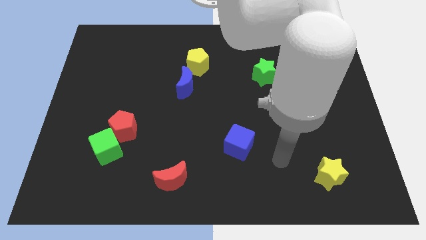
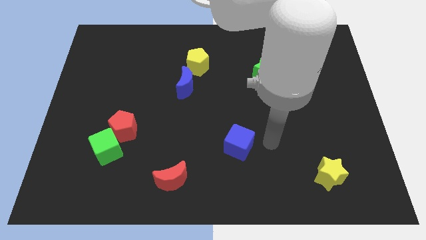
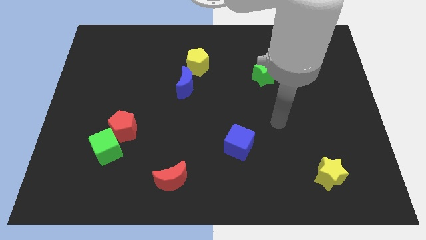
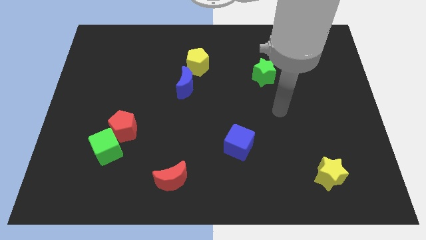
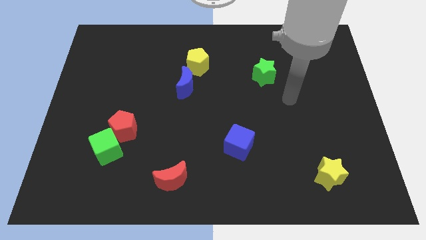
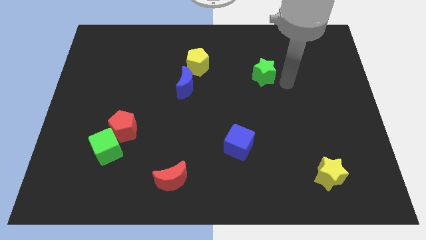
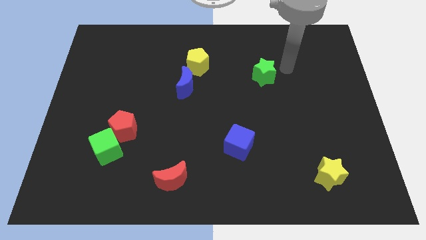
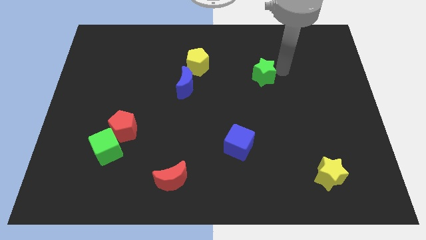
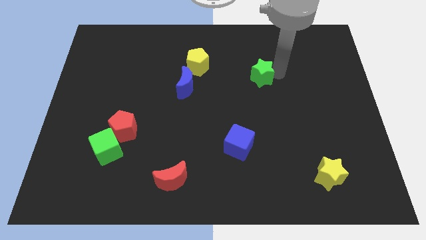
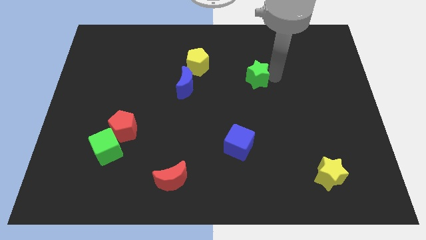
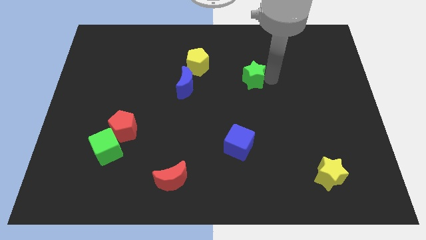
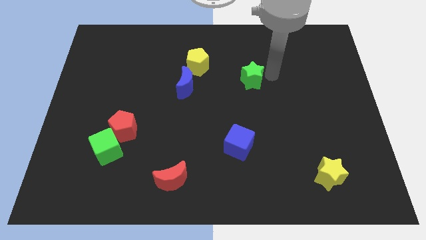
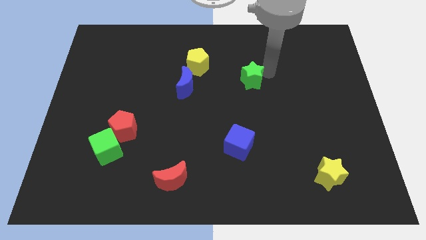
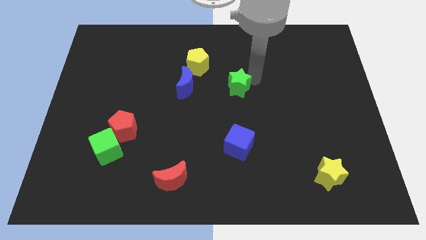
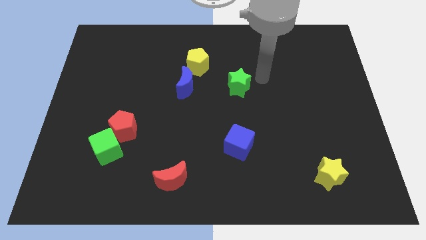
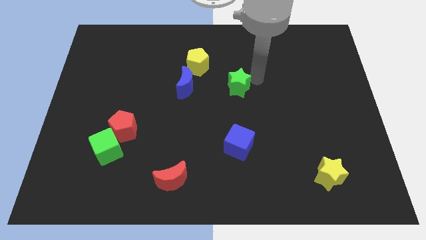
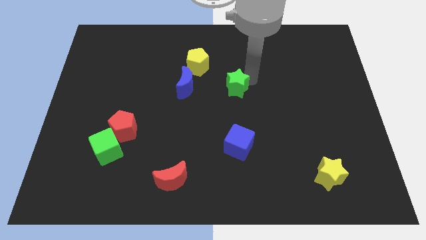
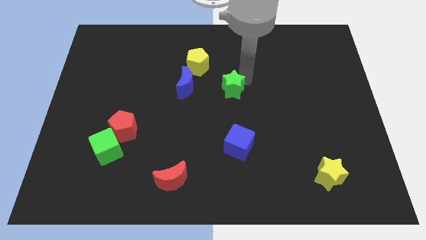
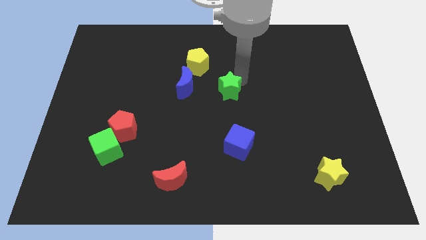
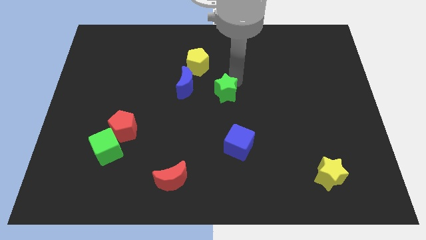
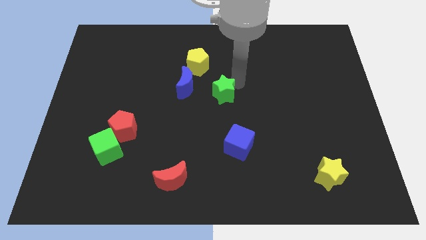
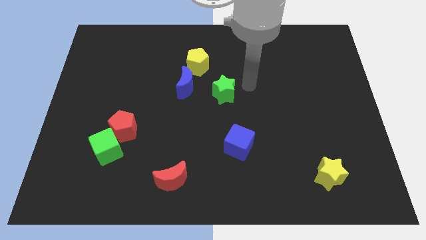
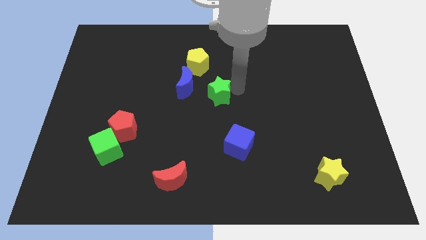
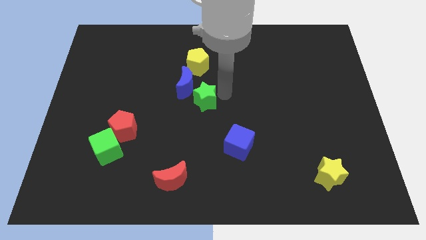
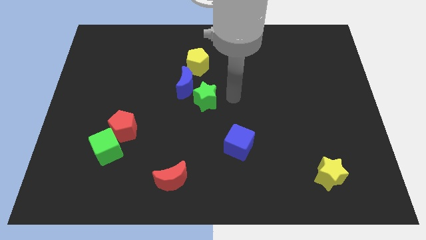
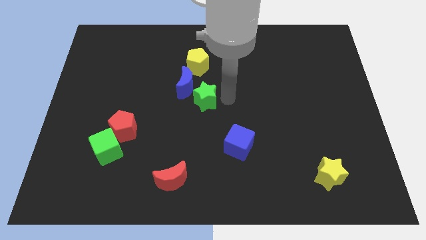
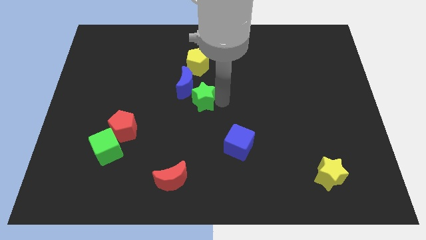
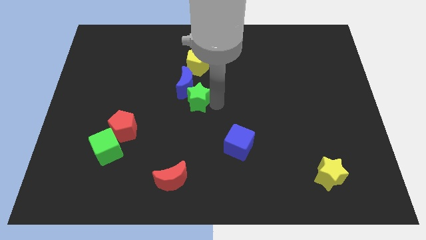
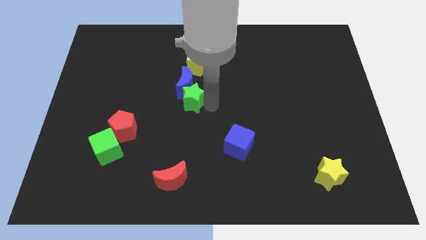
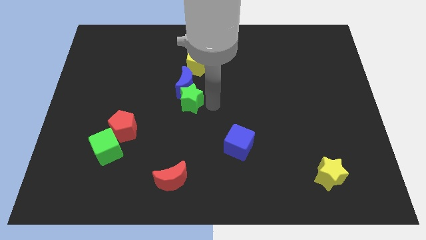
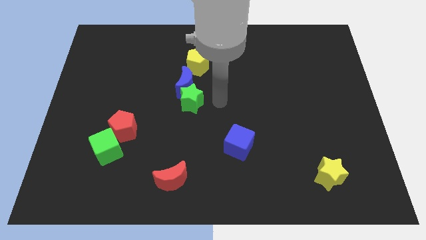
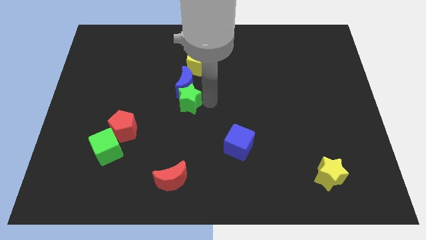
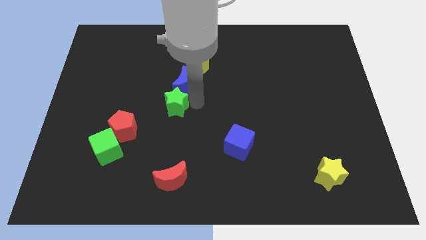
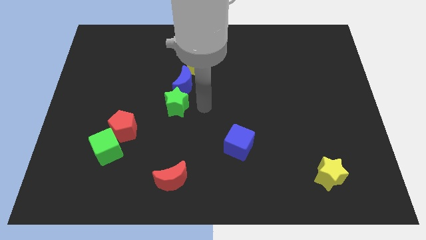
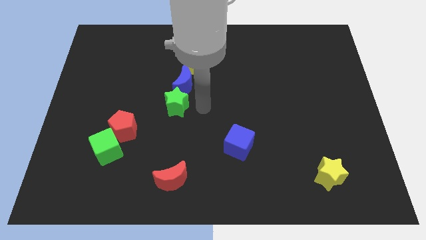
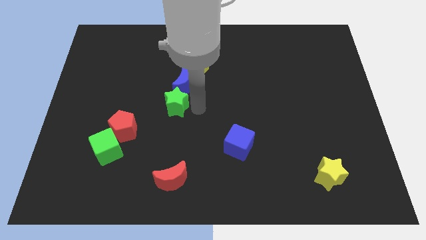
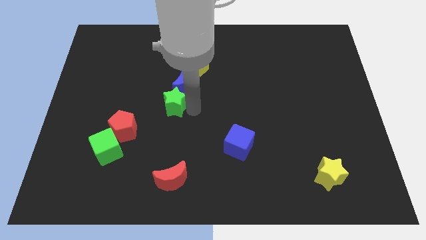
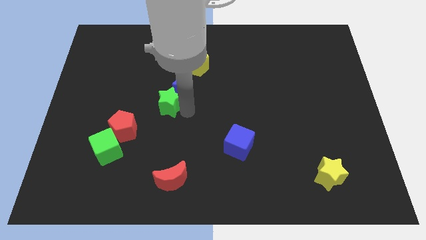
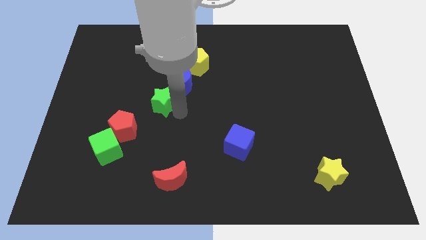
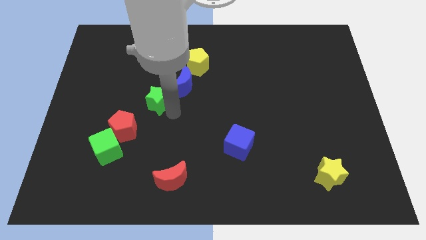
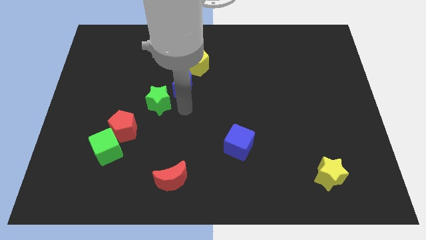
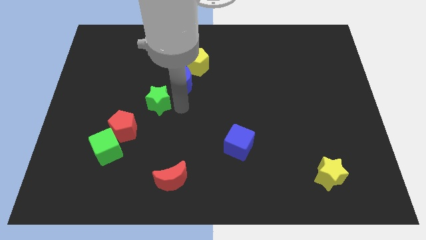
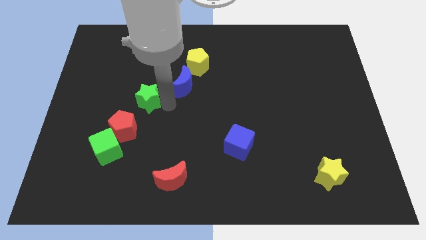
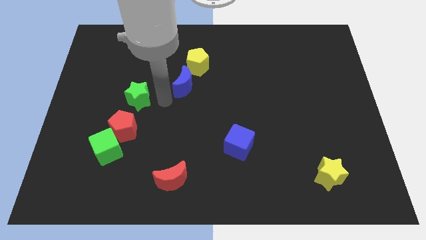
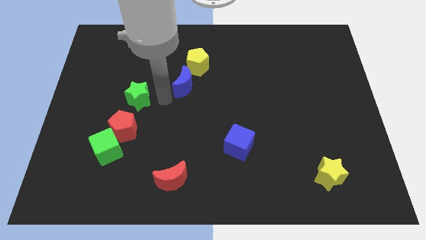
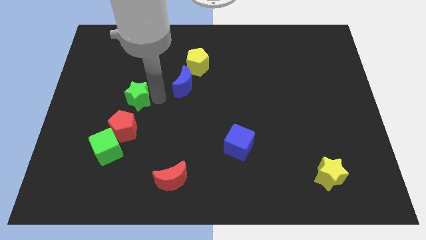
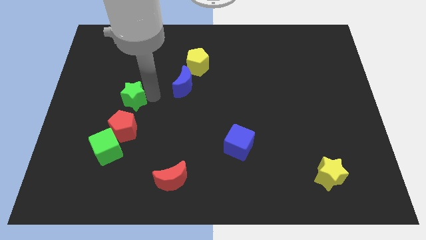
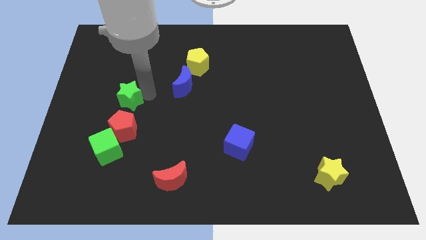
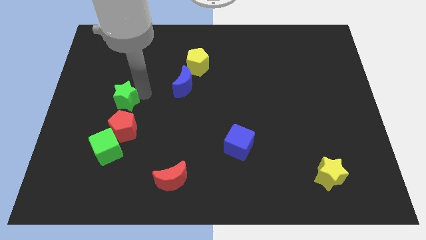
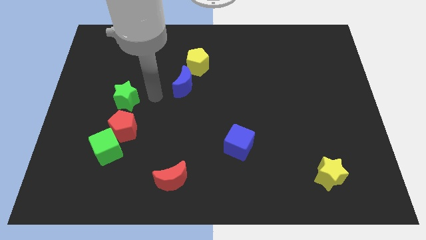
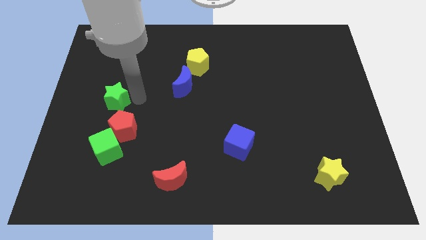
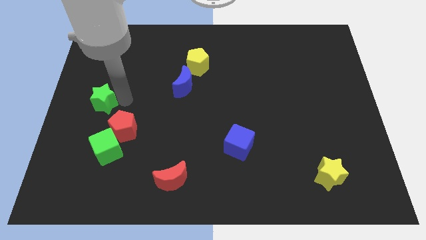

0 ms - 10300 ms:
push the green star to the center left
